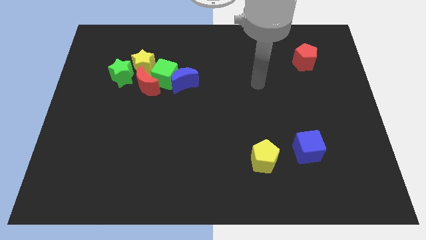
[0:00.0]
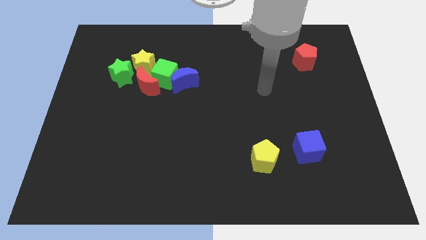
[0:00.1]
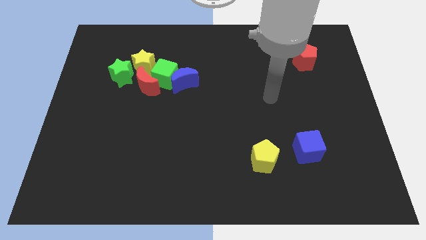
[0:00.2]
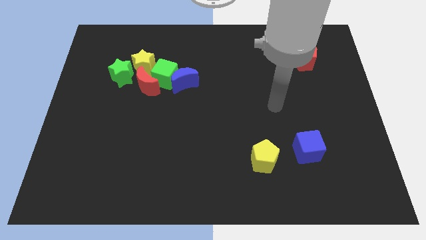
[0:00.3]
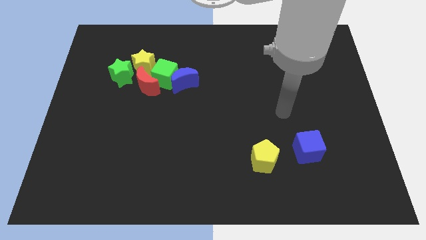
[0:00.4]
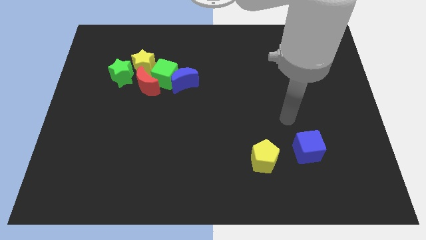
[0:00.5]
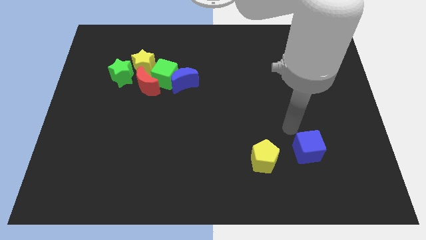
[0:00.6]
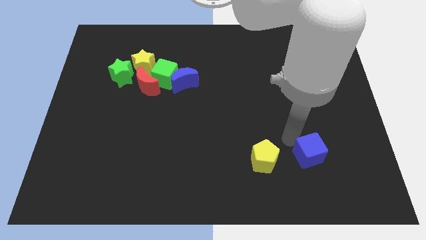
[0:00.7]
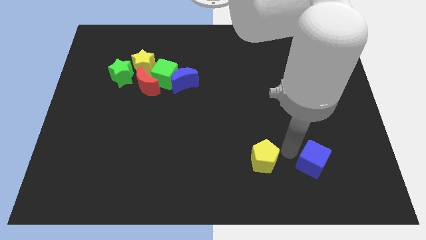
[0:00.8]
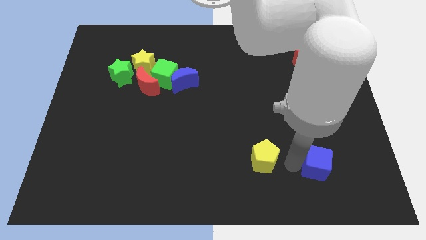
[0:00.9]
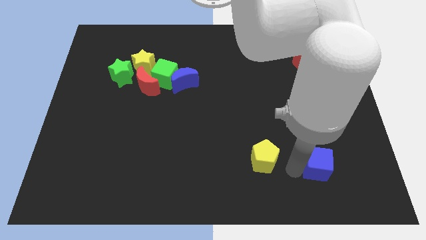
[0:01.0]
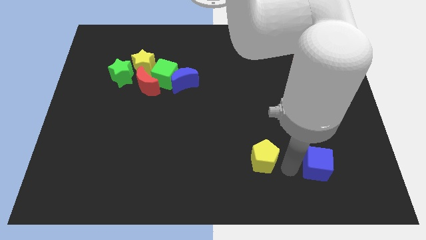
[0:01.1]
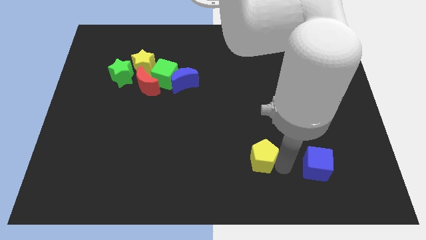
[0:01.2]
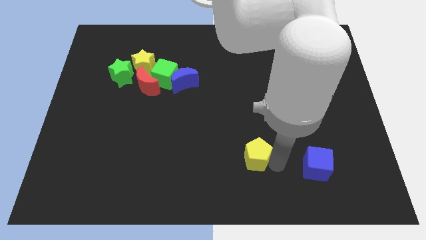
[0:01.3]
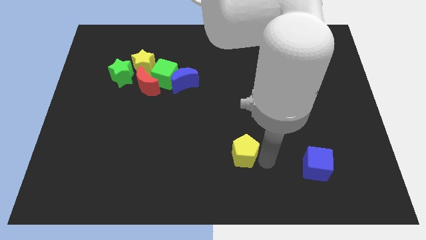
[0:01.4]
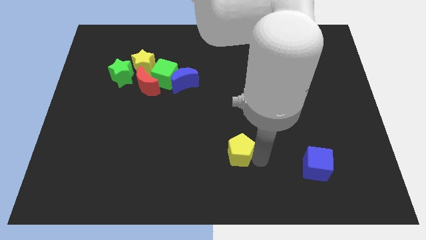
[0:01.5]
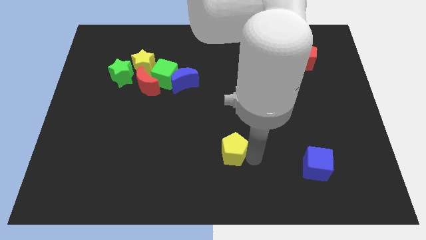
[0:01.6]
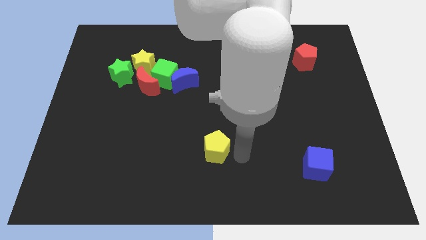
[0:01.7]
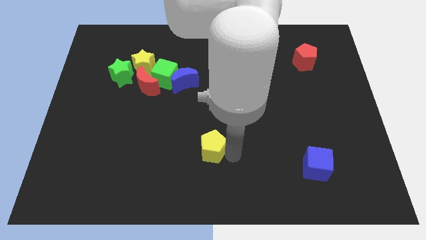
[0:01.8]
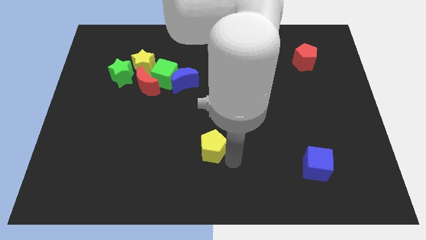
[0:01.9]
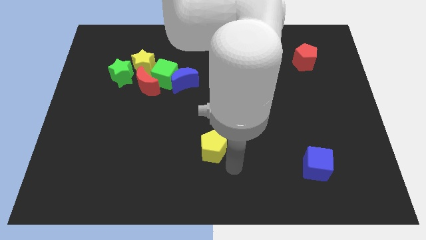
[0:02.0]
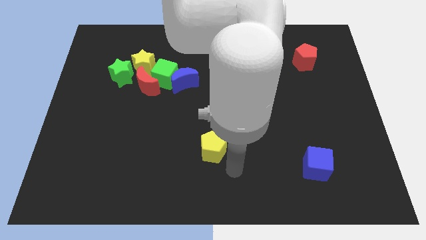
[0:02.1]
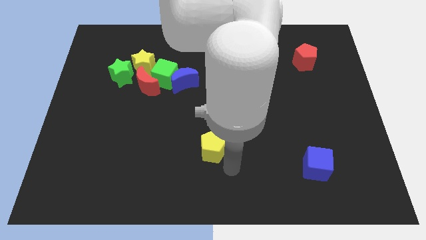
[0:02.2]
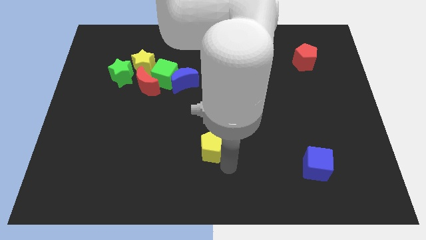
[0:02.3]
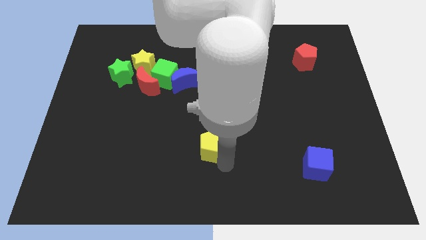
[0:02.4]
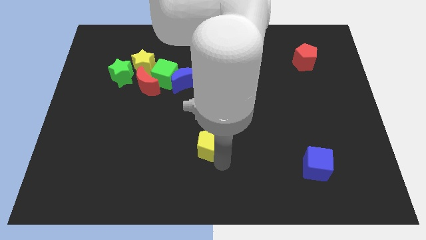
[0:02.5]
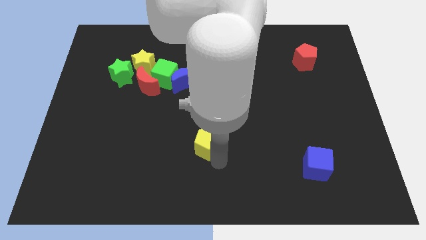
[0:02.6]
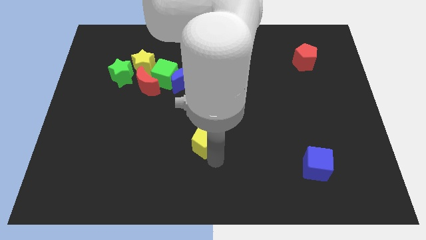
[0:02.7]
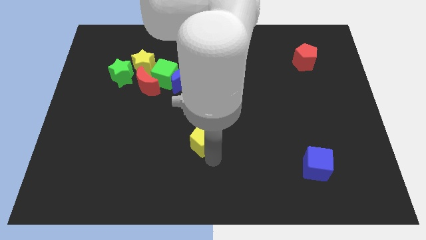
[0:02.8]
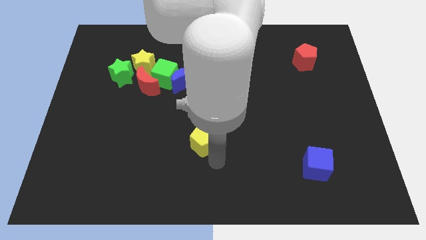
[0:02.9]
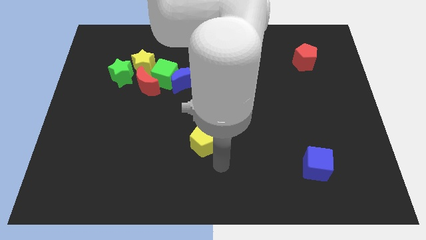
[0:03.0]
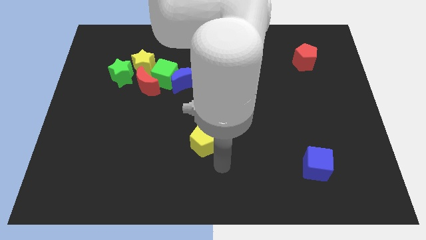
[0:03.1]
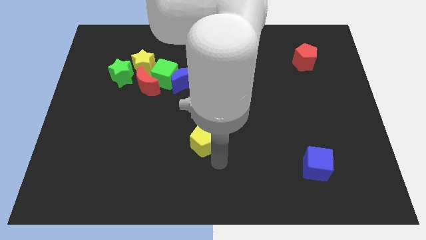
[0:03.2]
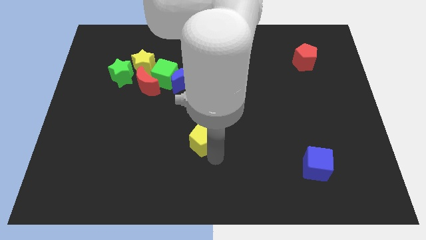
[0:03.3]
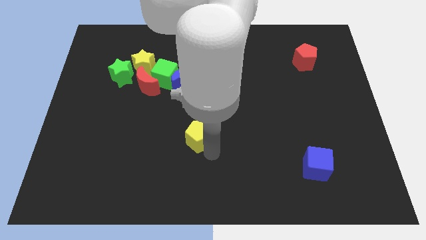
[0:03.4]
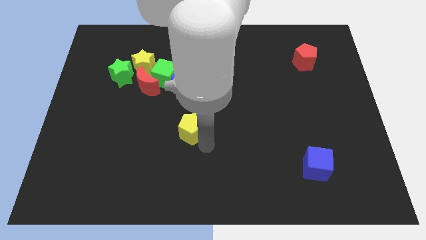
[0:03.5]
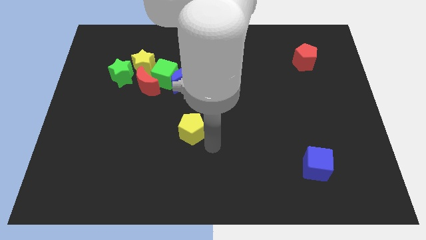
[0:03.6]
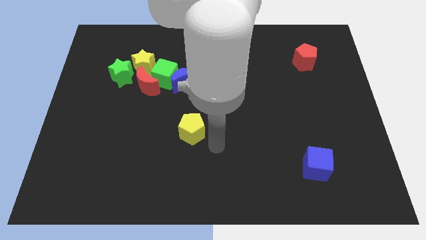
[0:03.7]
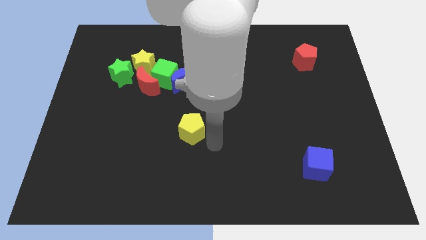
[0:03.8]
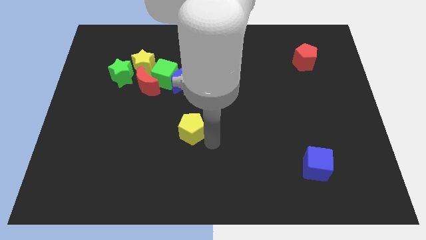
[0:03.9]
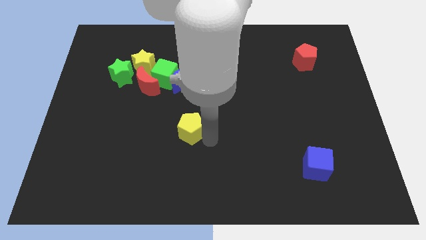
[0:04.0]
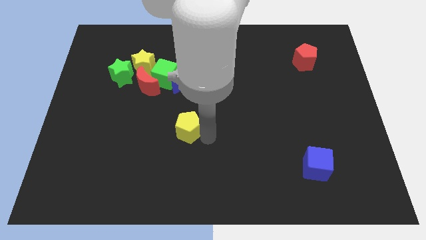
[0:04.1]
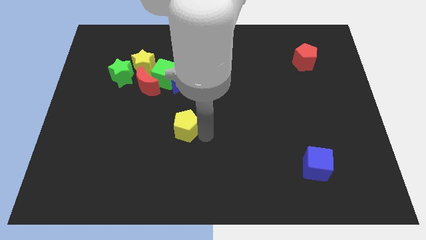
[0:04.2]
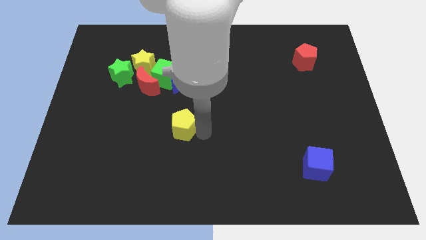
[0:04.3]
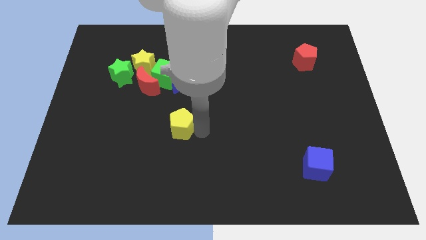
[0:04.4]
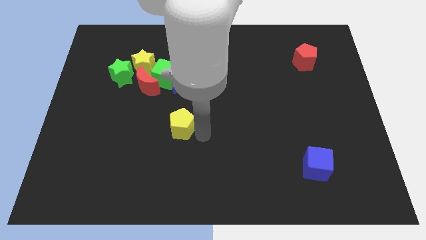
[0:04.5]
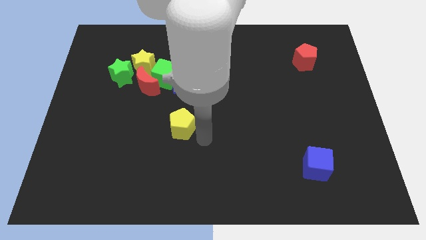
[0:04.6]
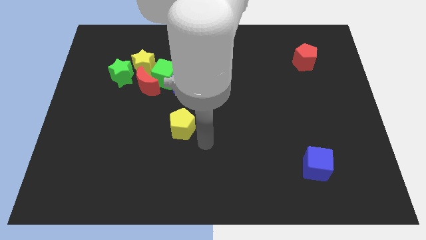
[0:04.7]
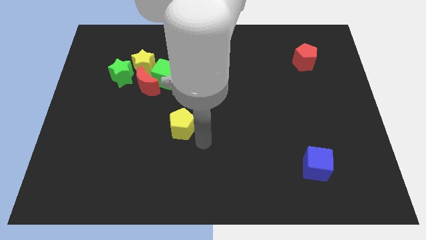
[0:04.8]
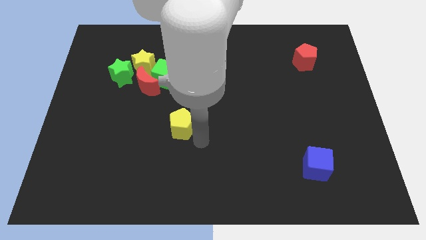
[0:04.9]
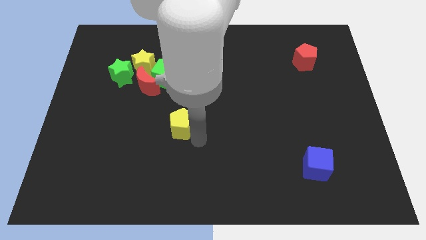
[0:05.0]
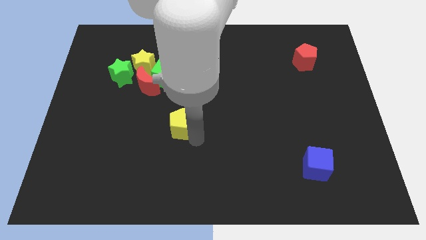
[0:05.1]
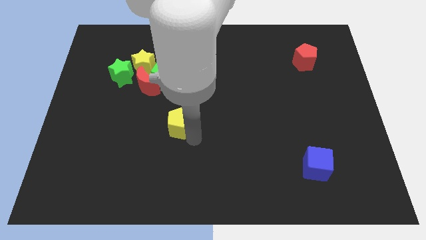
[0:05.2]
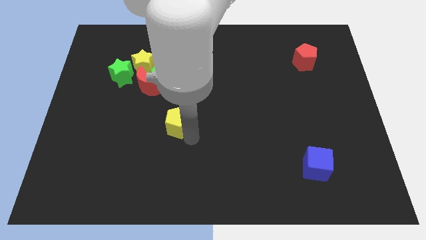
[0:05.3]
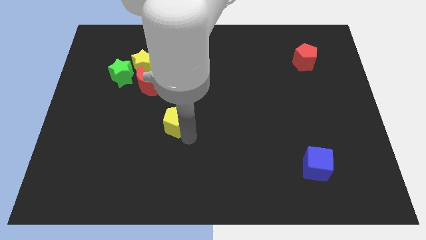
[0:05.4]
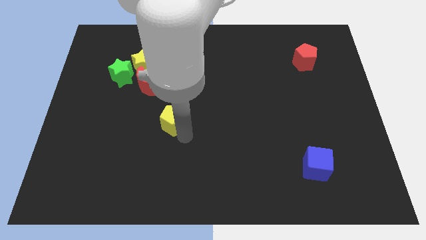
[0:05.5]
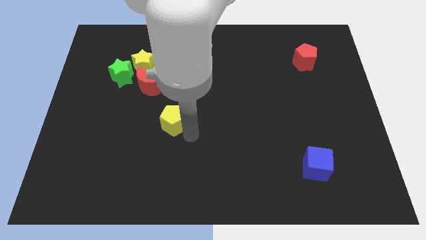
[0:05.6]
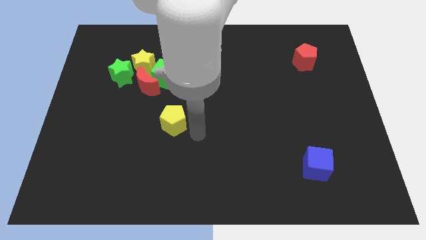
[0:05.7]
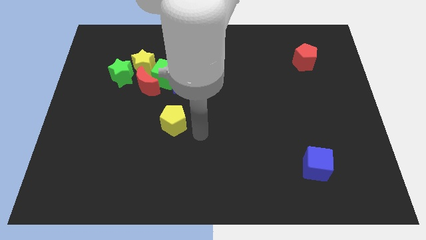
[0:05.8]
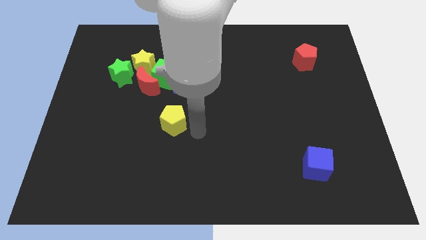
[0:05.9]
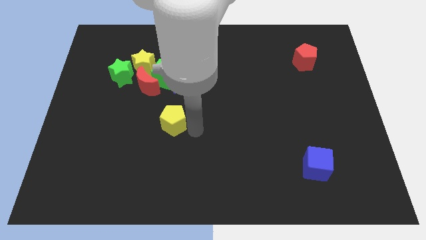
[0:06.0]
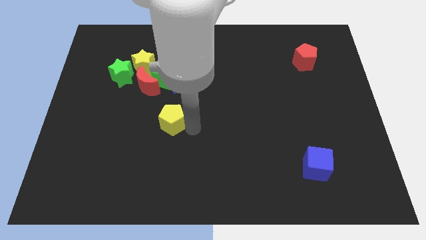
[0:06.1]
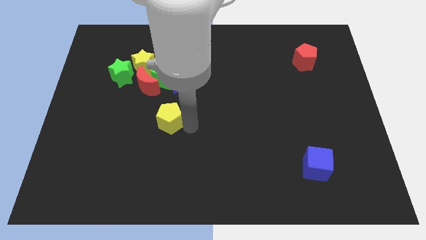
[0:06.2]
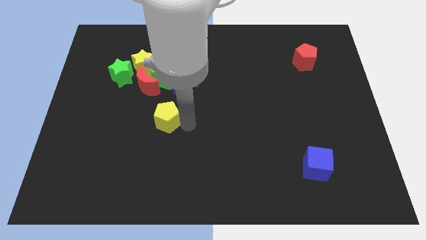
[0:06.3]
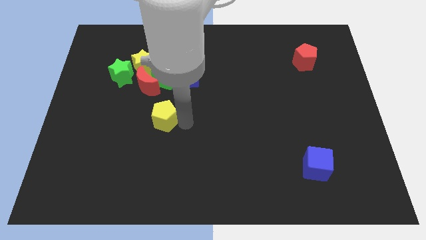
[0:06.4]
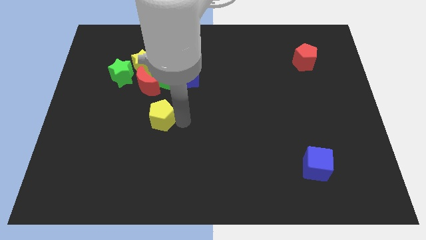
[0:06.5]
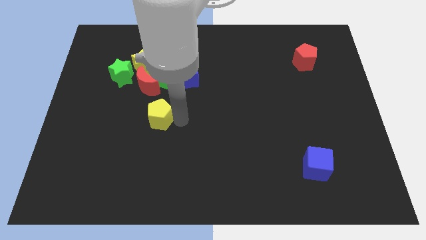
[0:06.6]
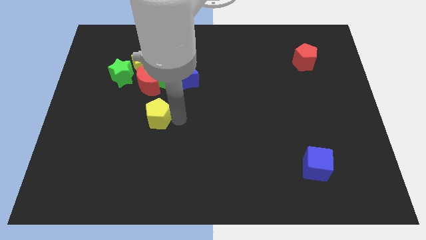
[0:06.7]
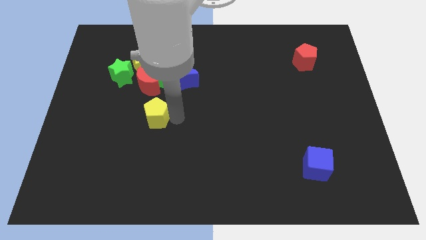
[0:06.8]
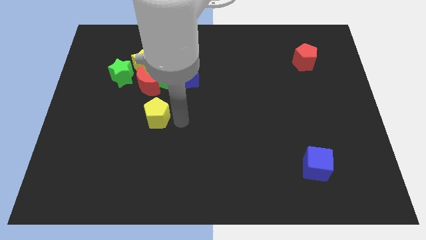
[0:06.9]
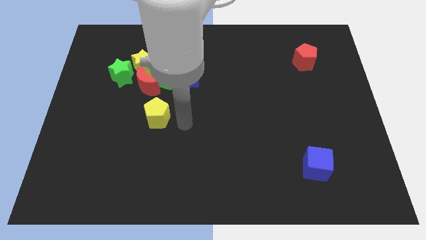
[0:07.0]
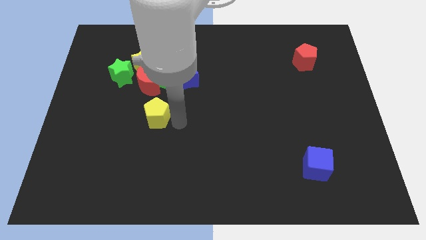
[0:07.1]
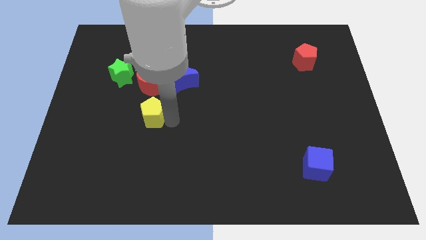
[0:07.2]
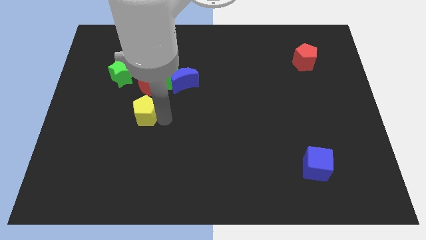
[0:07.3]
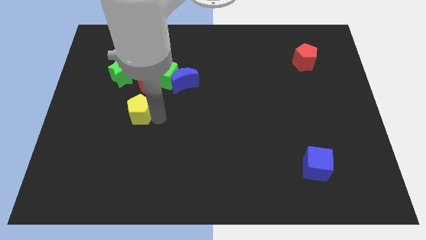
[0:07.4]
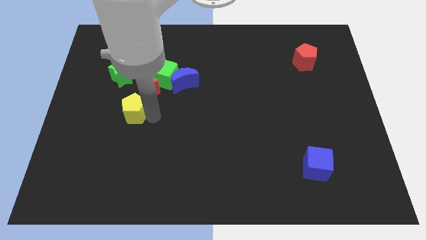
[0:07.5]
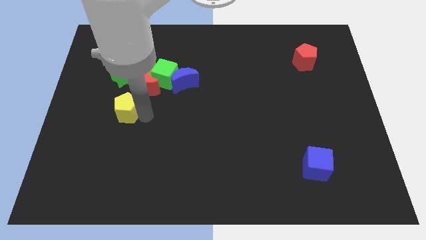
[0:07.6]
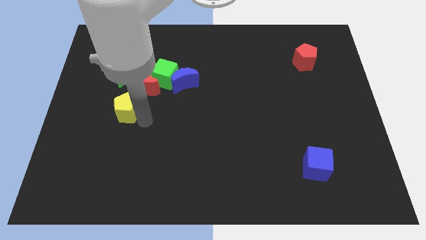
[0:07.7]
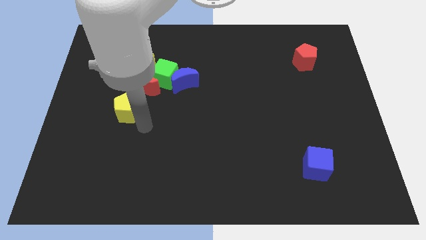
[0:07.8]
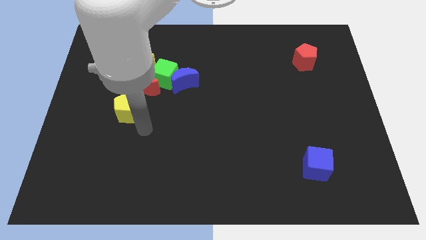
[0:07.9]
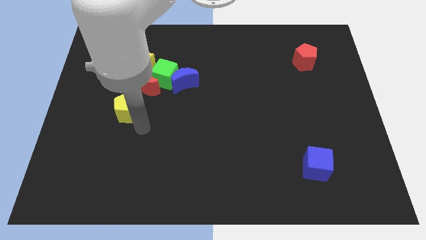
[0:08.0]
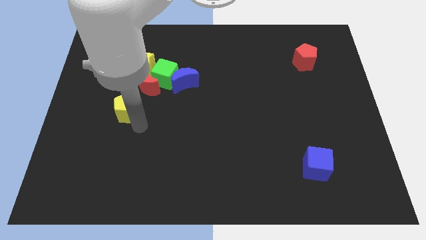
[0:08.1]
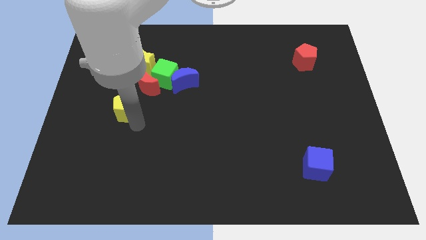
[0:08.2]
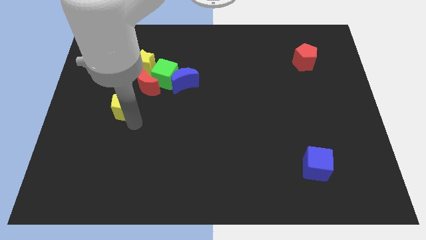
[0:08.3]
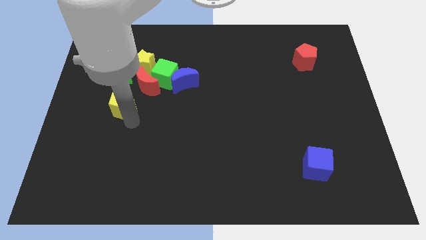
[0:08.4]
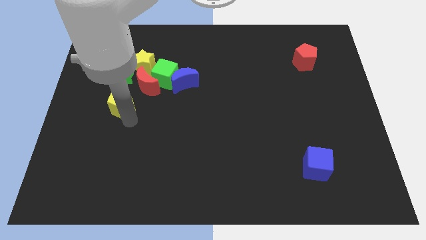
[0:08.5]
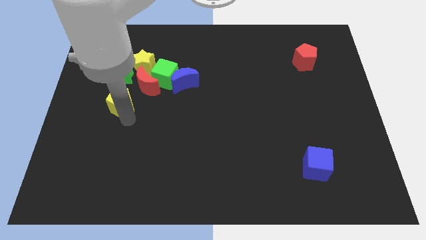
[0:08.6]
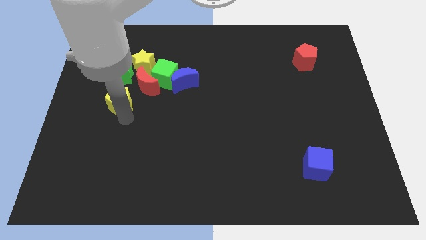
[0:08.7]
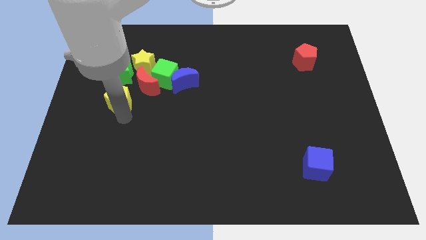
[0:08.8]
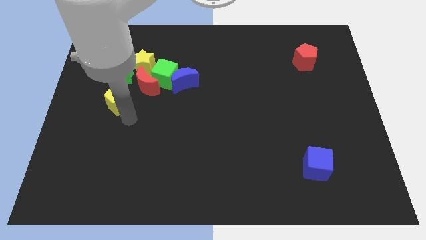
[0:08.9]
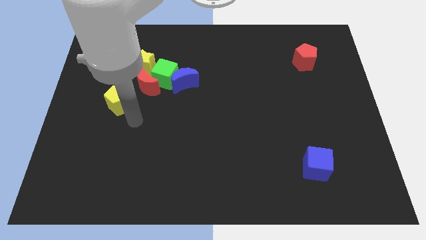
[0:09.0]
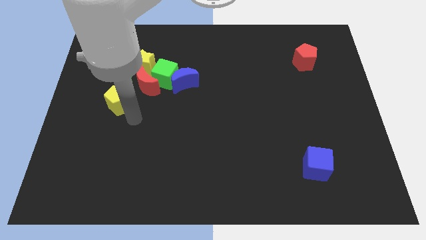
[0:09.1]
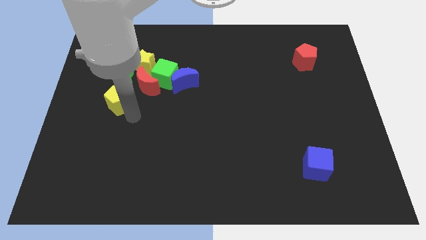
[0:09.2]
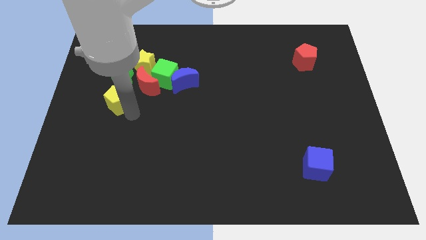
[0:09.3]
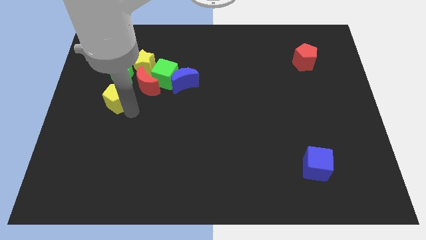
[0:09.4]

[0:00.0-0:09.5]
move the yellow pentagon to the left side of the red moon
